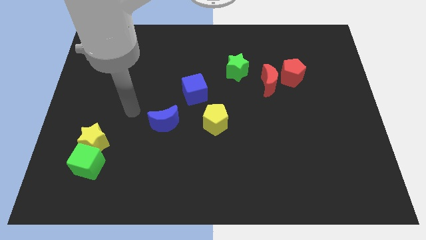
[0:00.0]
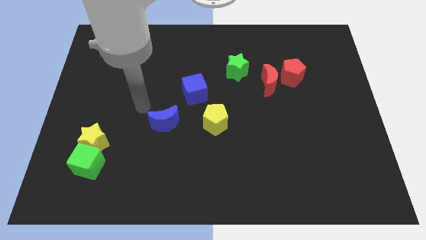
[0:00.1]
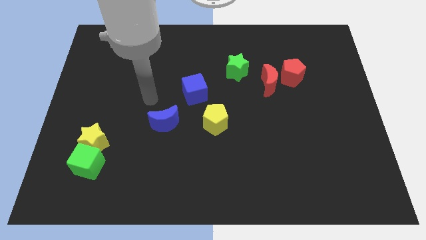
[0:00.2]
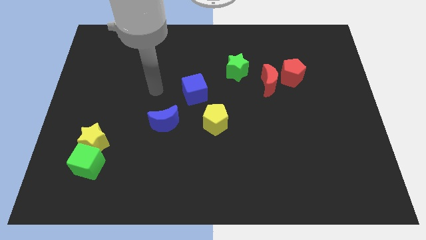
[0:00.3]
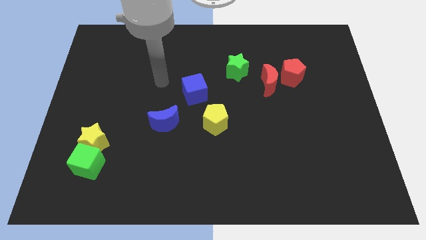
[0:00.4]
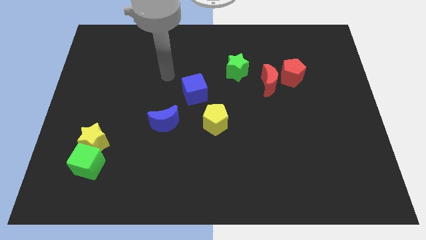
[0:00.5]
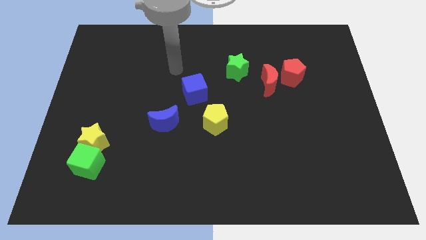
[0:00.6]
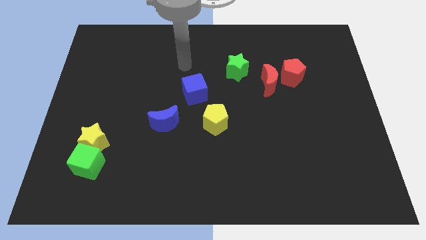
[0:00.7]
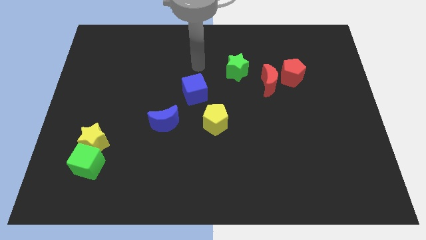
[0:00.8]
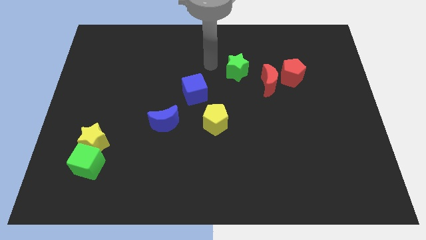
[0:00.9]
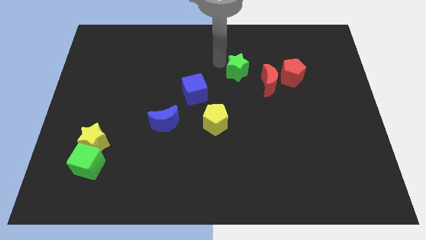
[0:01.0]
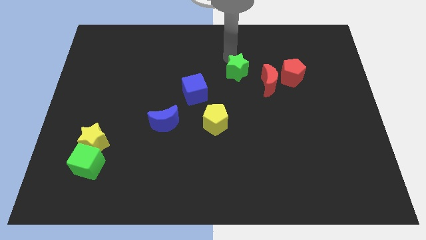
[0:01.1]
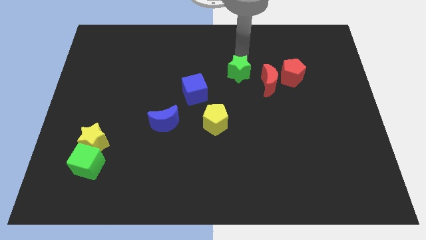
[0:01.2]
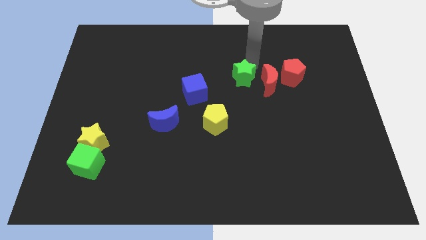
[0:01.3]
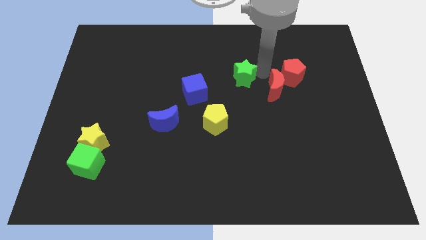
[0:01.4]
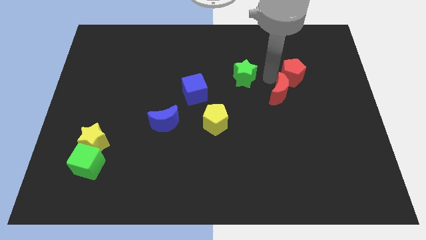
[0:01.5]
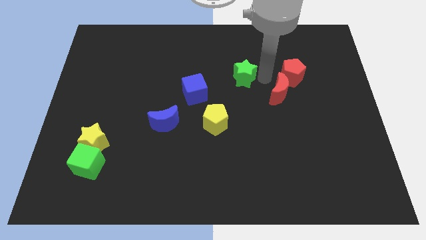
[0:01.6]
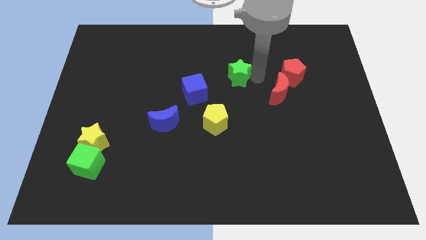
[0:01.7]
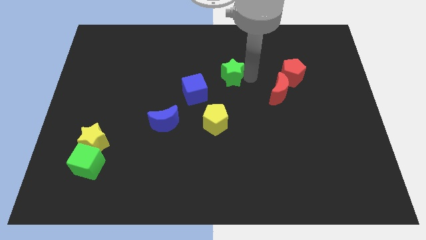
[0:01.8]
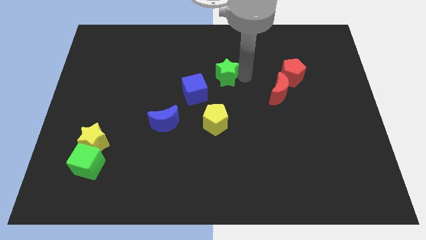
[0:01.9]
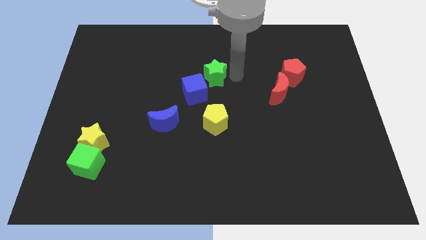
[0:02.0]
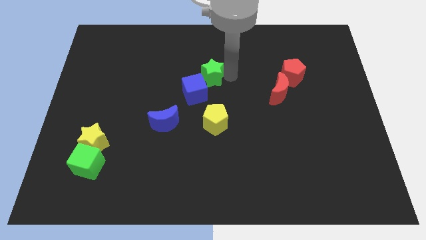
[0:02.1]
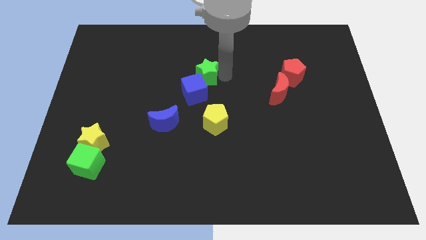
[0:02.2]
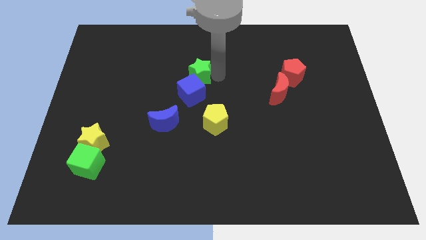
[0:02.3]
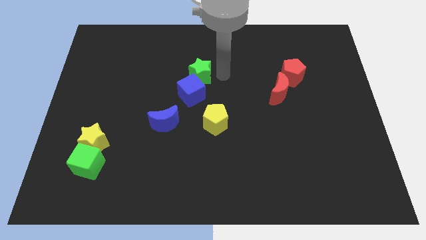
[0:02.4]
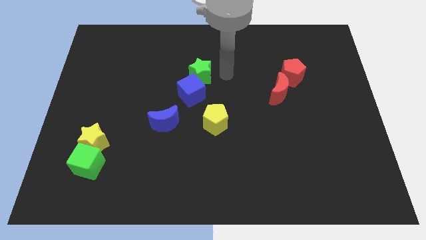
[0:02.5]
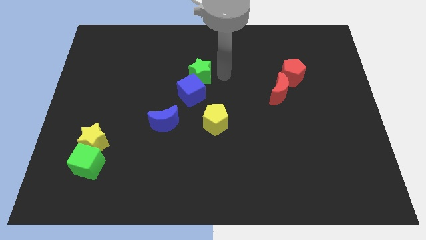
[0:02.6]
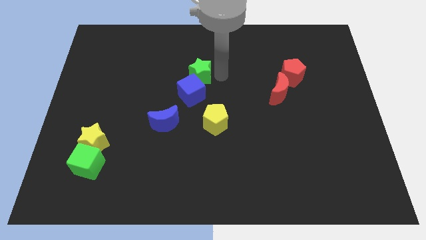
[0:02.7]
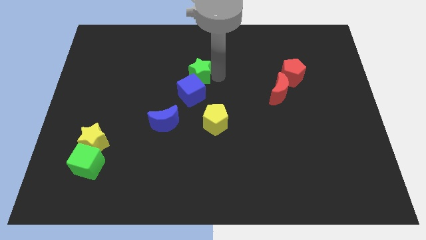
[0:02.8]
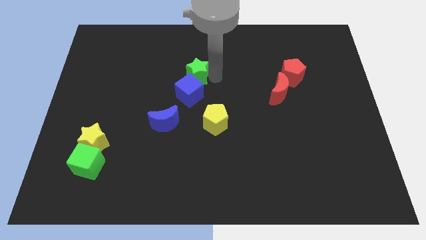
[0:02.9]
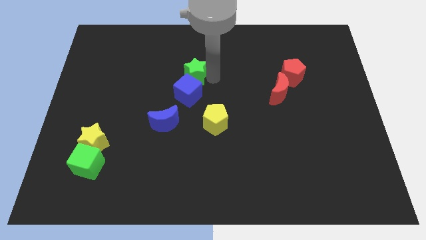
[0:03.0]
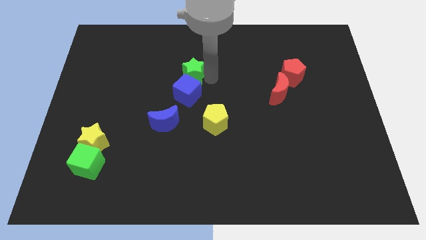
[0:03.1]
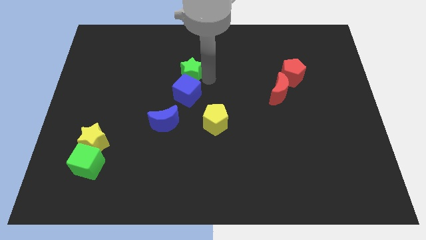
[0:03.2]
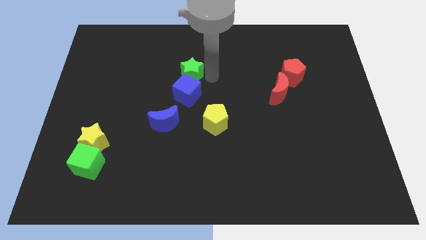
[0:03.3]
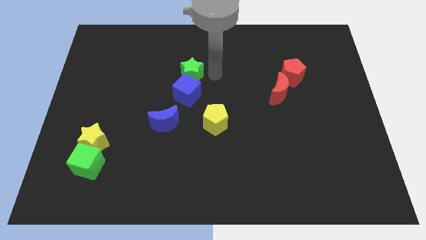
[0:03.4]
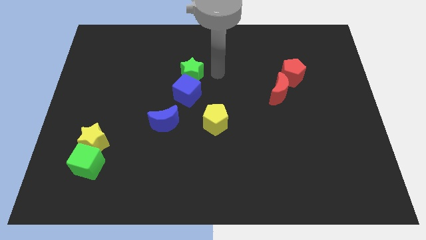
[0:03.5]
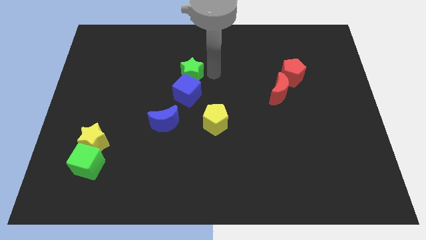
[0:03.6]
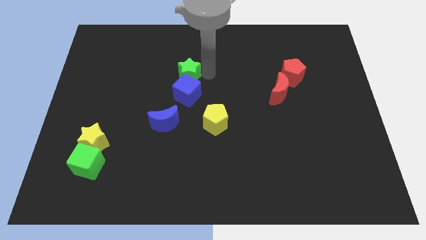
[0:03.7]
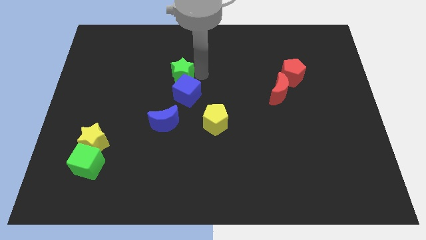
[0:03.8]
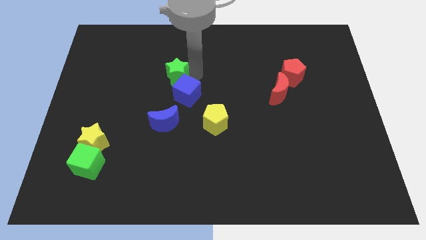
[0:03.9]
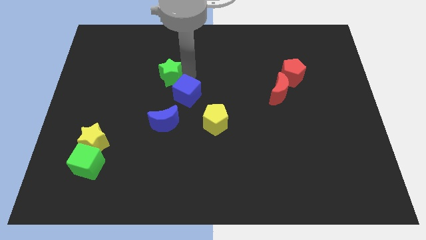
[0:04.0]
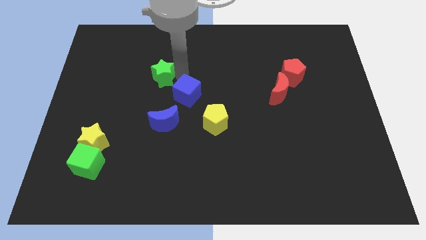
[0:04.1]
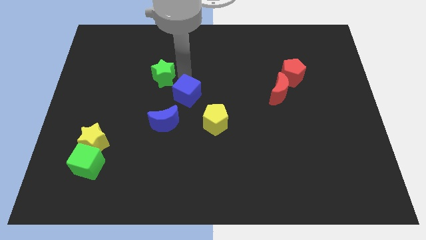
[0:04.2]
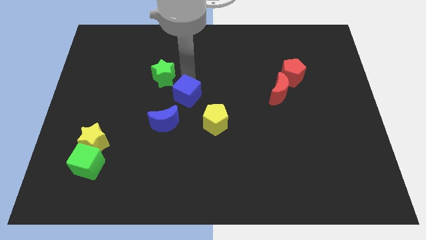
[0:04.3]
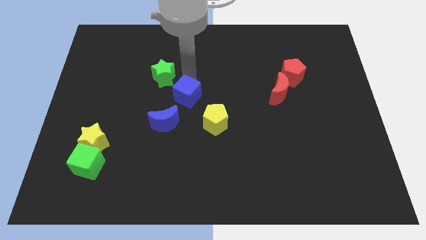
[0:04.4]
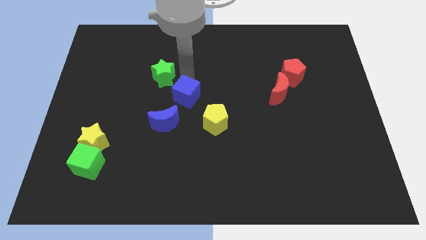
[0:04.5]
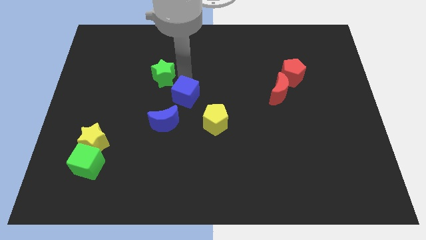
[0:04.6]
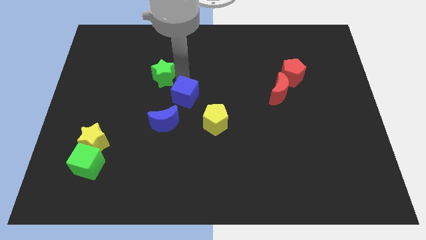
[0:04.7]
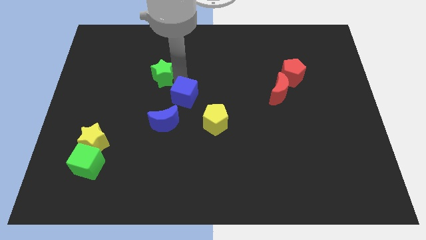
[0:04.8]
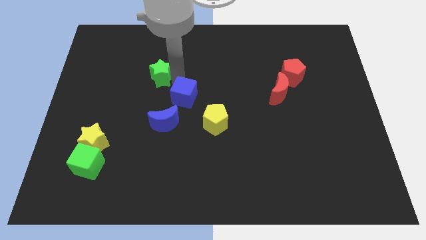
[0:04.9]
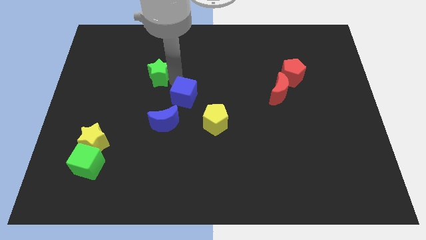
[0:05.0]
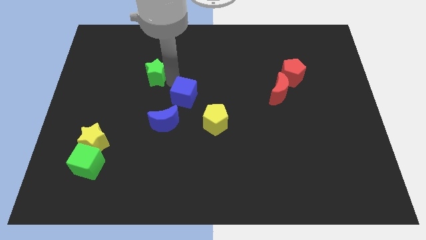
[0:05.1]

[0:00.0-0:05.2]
slide the green star left

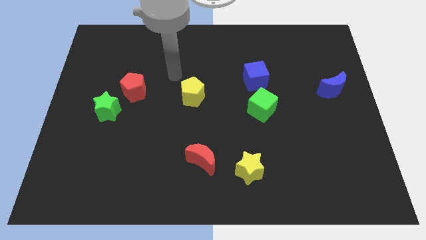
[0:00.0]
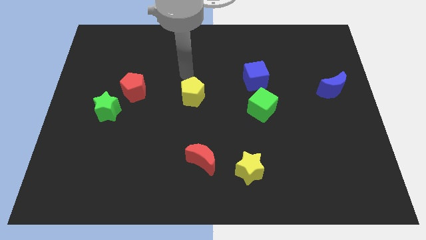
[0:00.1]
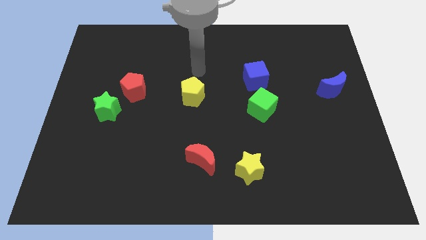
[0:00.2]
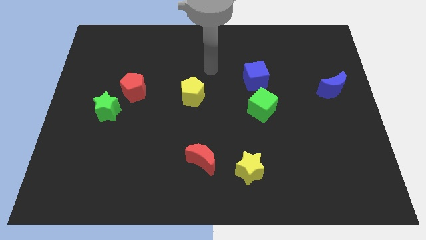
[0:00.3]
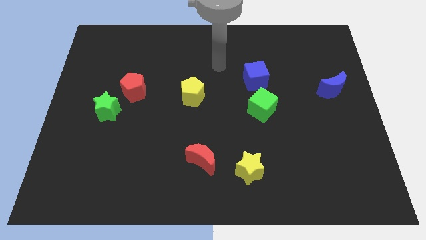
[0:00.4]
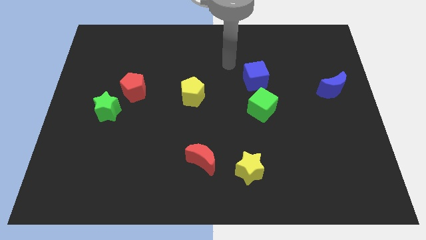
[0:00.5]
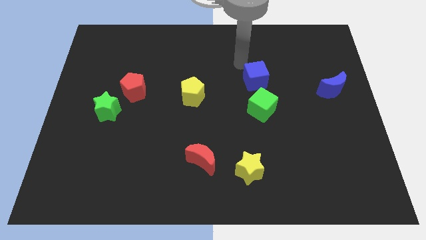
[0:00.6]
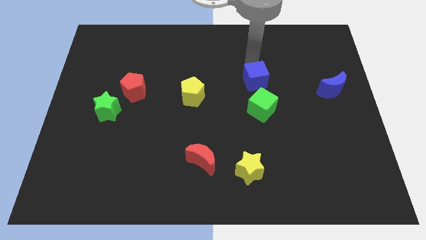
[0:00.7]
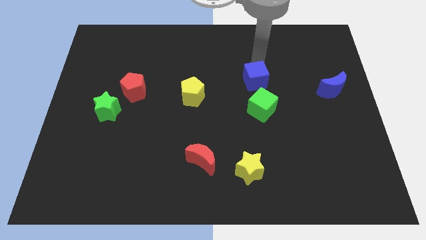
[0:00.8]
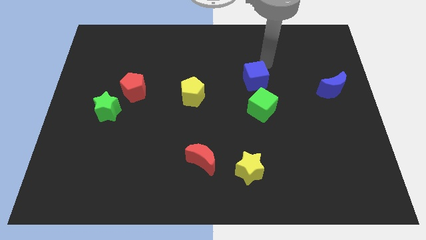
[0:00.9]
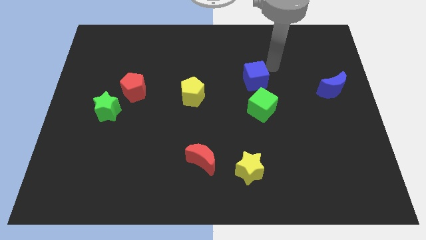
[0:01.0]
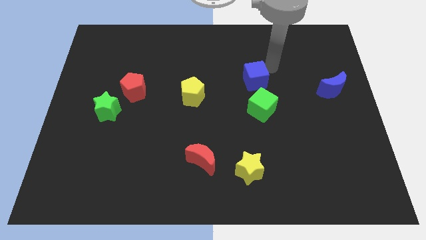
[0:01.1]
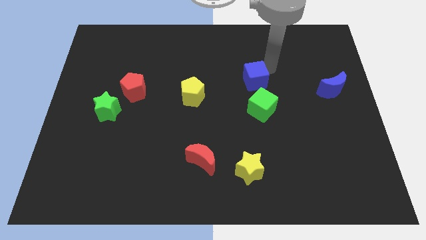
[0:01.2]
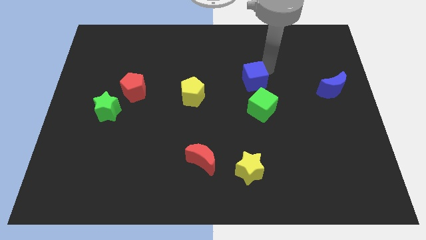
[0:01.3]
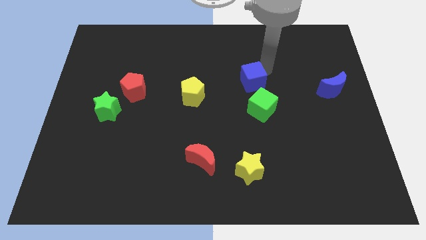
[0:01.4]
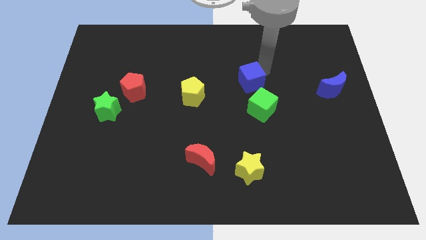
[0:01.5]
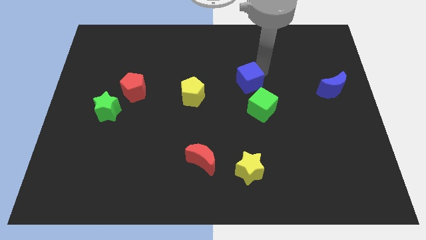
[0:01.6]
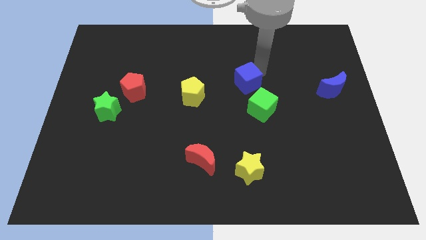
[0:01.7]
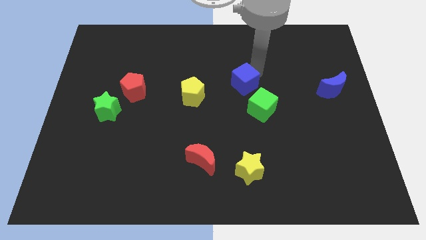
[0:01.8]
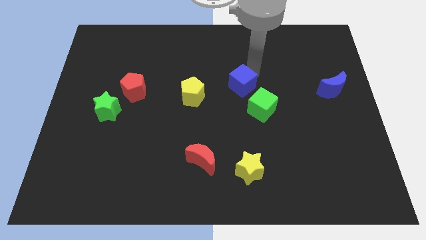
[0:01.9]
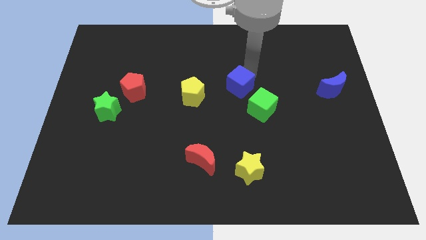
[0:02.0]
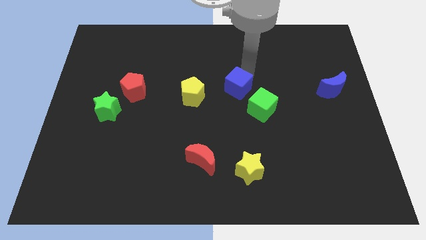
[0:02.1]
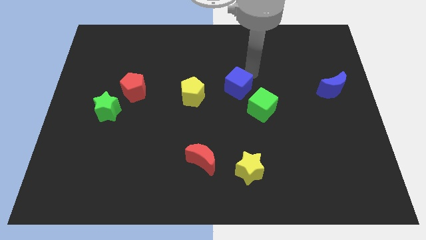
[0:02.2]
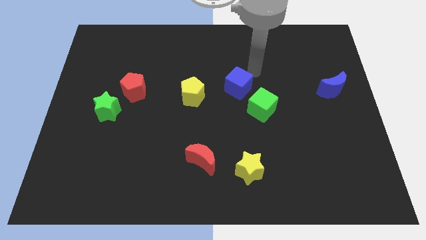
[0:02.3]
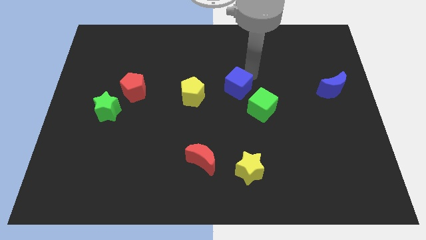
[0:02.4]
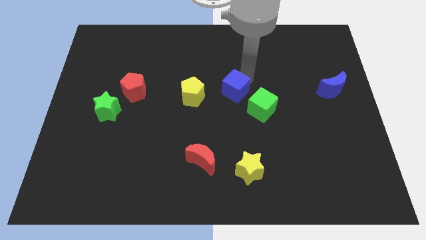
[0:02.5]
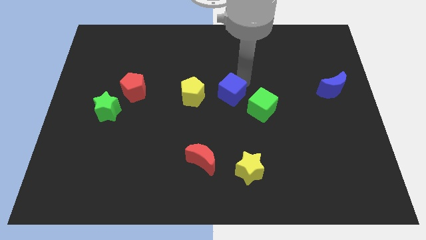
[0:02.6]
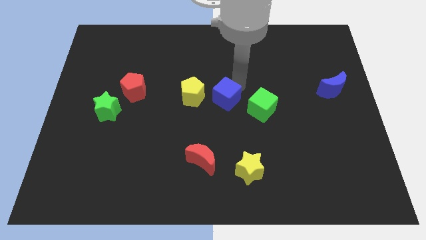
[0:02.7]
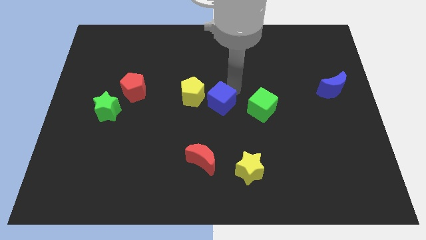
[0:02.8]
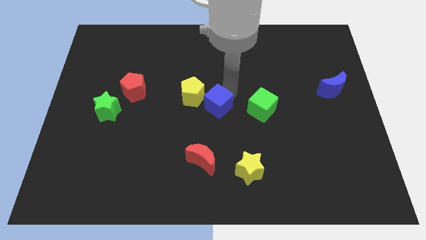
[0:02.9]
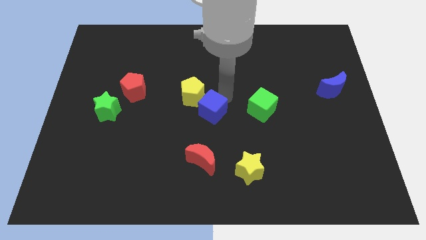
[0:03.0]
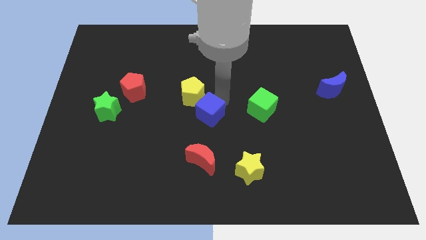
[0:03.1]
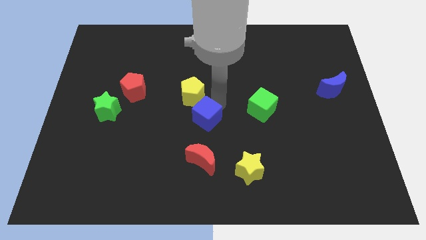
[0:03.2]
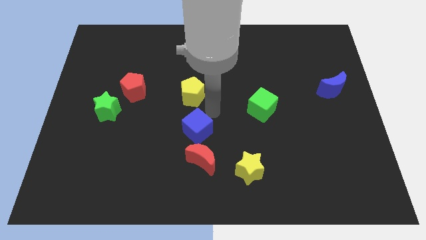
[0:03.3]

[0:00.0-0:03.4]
slide the blue cube downwards and then to the left
